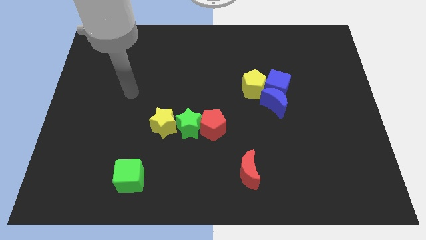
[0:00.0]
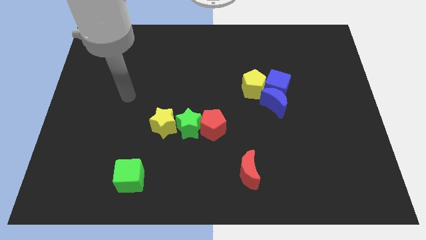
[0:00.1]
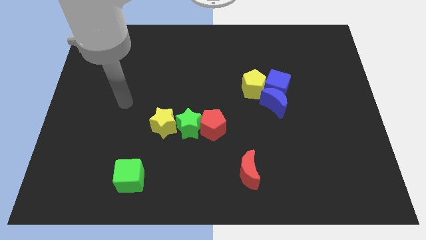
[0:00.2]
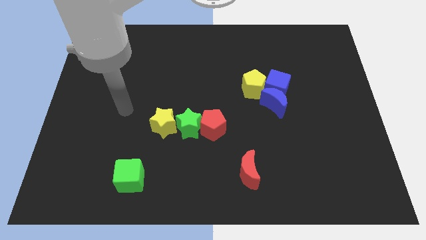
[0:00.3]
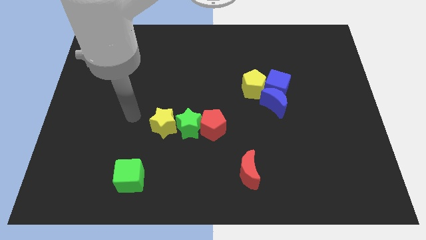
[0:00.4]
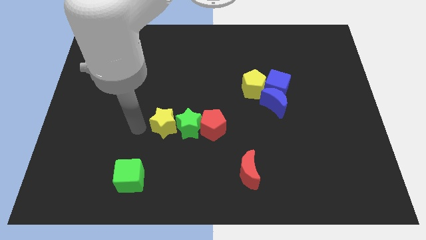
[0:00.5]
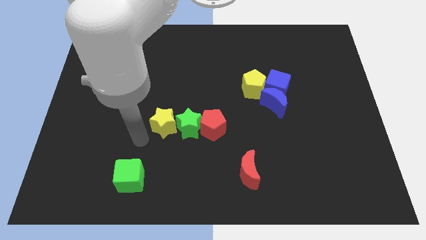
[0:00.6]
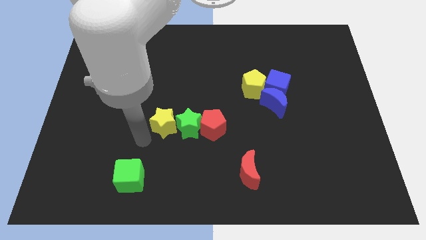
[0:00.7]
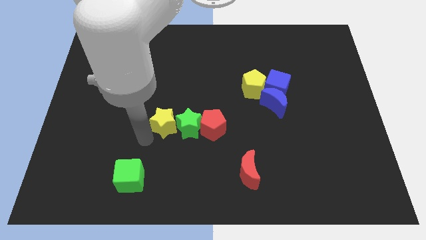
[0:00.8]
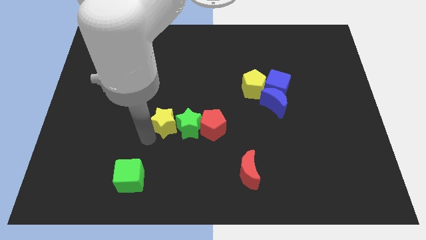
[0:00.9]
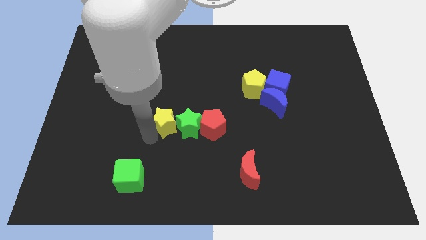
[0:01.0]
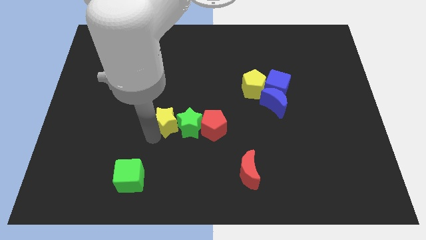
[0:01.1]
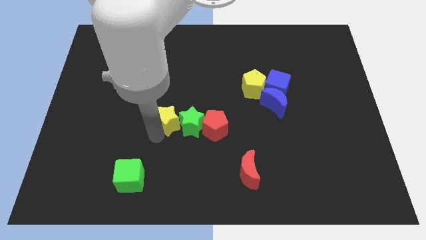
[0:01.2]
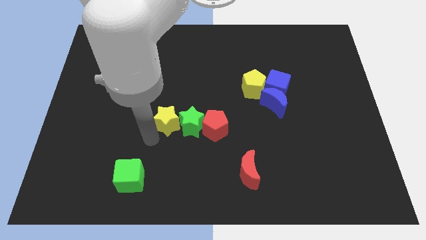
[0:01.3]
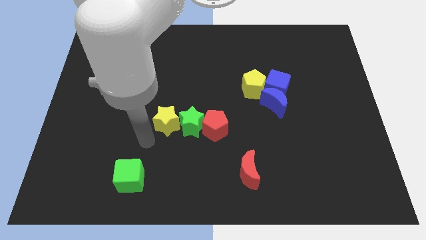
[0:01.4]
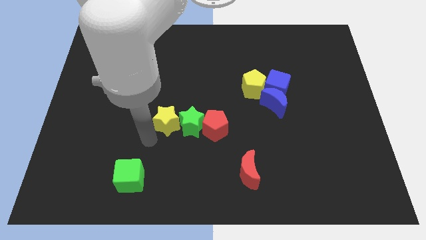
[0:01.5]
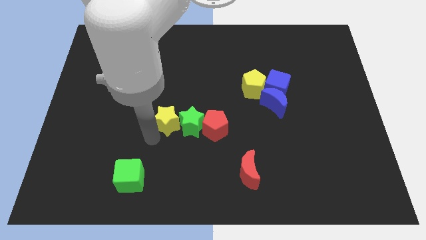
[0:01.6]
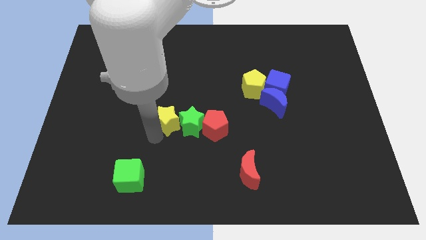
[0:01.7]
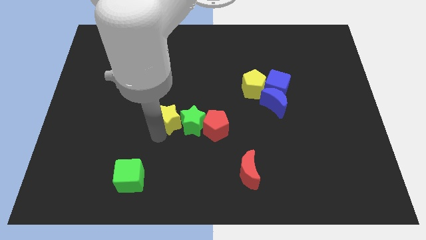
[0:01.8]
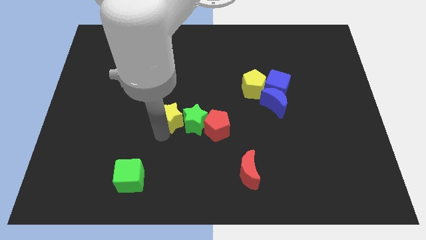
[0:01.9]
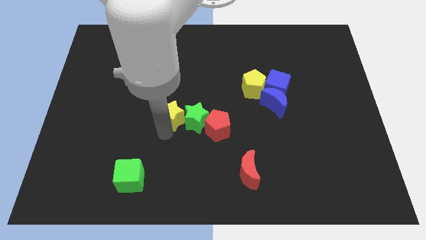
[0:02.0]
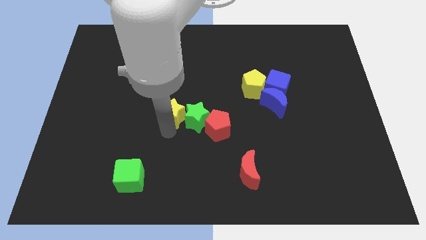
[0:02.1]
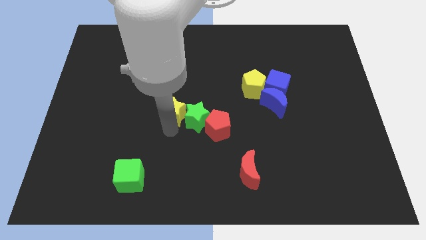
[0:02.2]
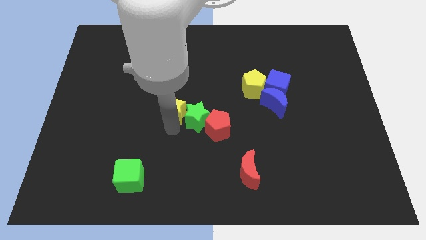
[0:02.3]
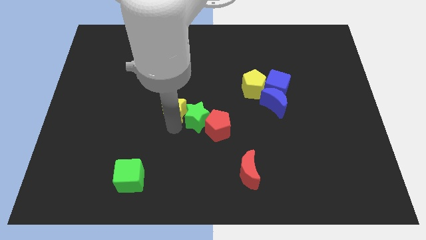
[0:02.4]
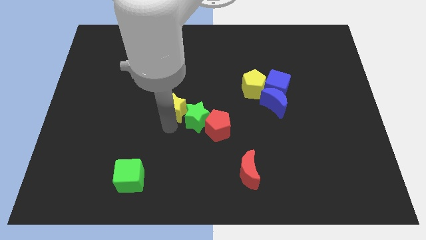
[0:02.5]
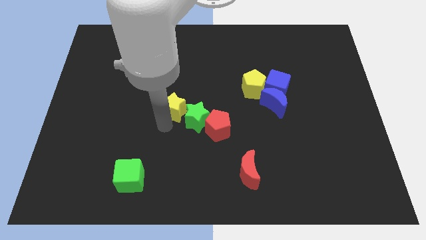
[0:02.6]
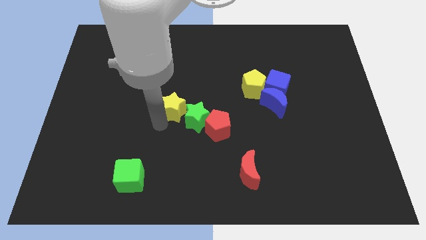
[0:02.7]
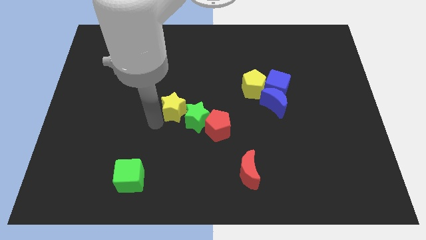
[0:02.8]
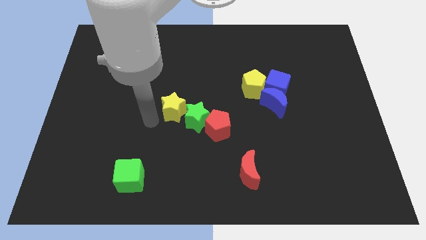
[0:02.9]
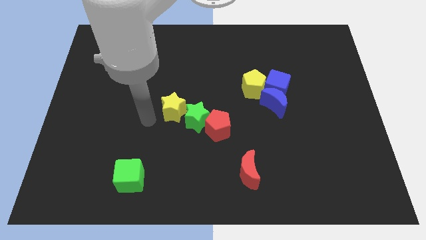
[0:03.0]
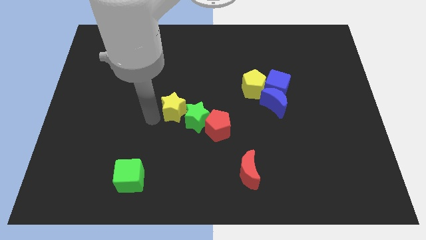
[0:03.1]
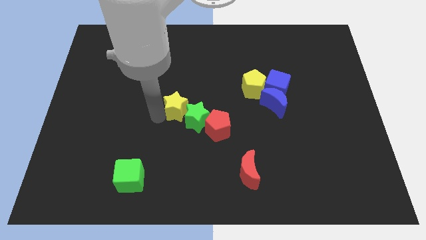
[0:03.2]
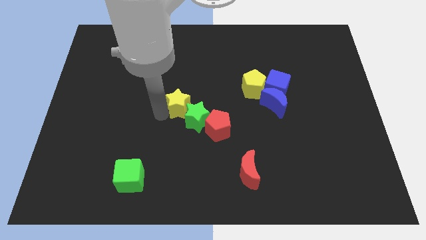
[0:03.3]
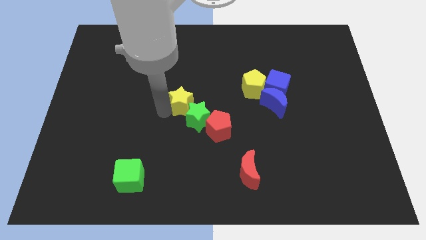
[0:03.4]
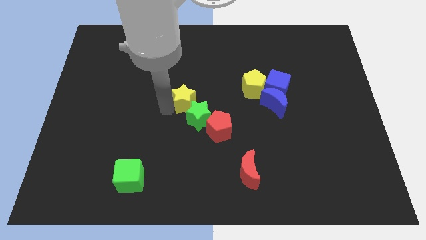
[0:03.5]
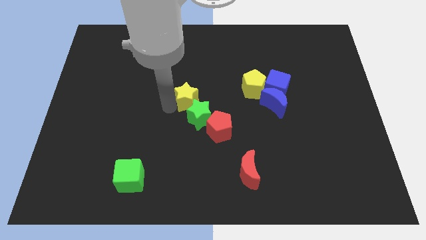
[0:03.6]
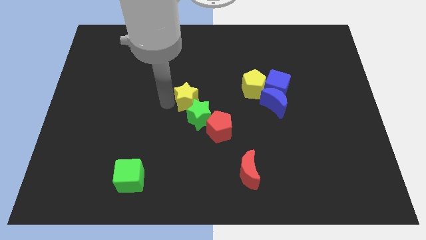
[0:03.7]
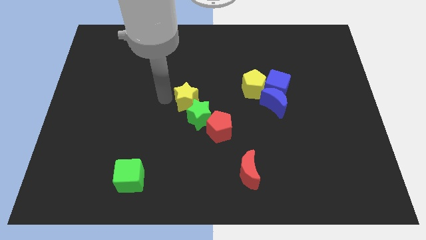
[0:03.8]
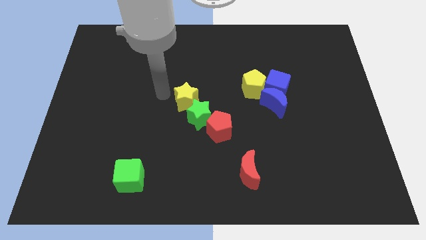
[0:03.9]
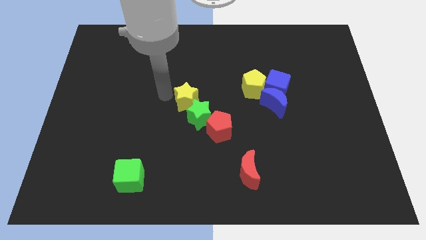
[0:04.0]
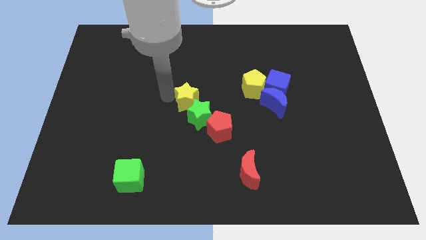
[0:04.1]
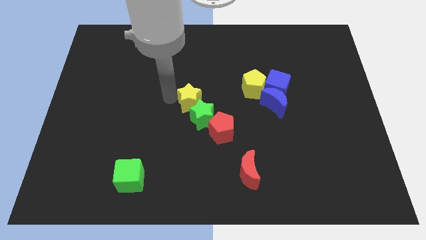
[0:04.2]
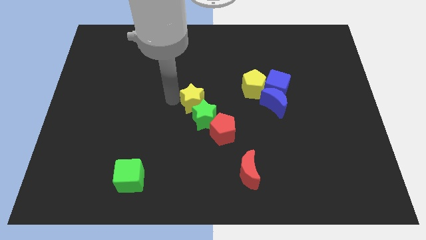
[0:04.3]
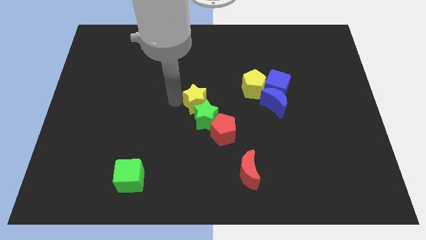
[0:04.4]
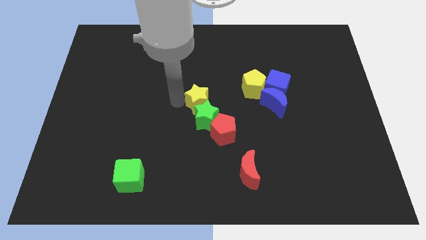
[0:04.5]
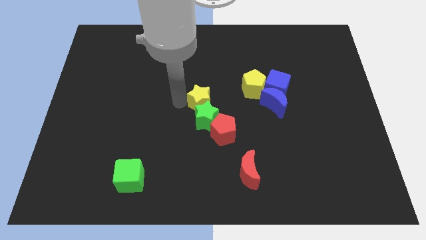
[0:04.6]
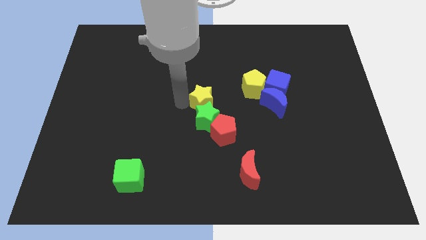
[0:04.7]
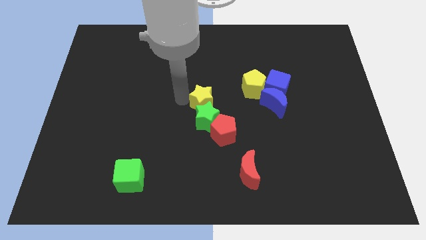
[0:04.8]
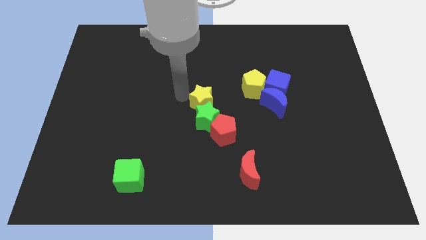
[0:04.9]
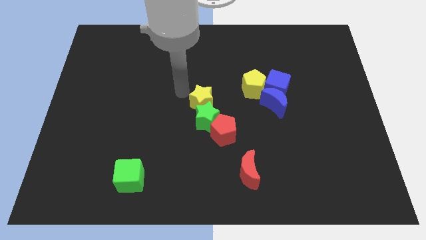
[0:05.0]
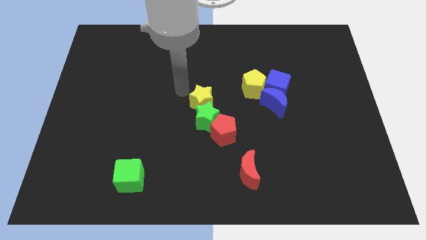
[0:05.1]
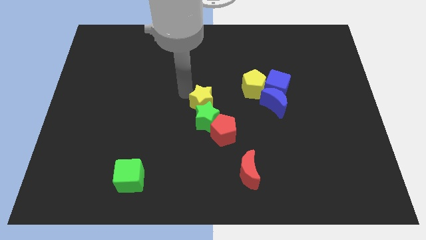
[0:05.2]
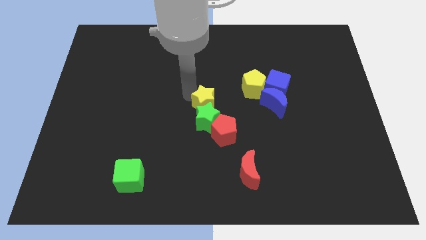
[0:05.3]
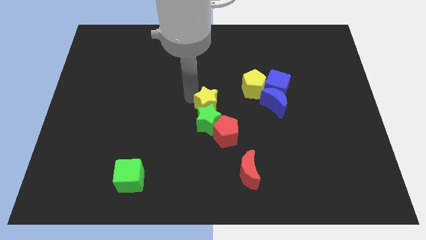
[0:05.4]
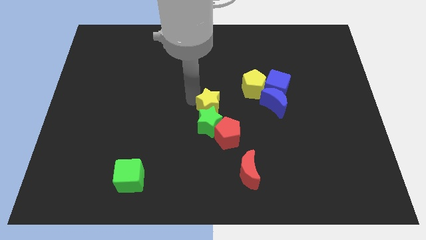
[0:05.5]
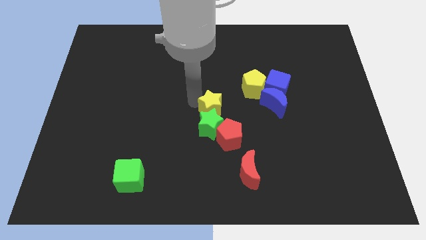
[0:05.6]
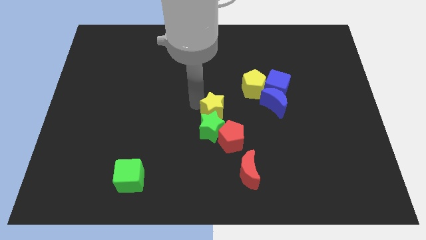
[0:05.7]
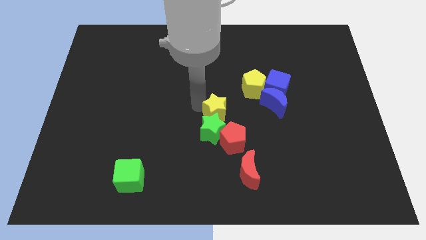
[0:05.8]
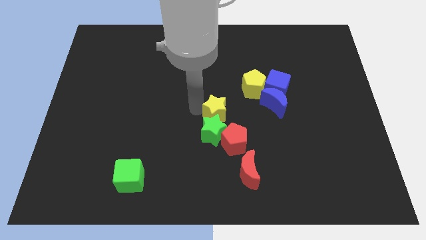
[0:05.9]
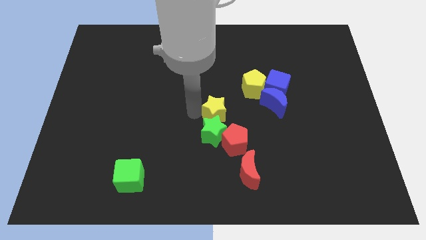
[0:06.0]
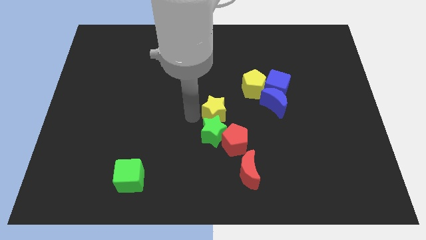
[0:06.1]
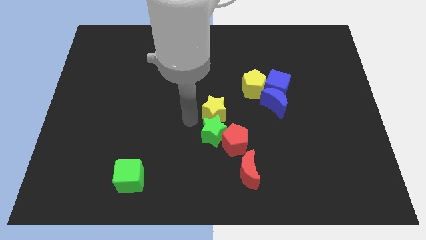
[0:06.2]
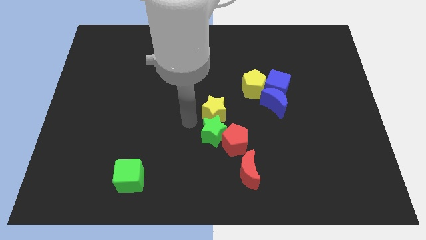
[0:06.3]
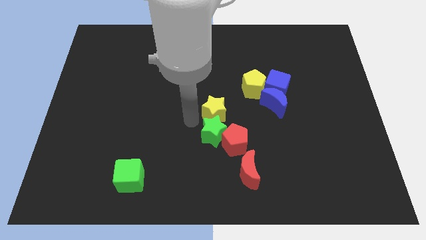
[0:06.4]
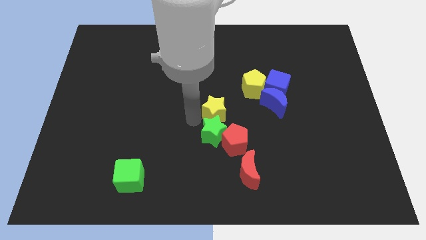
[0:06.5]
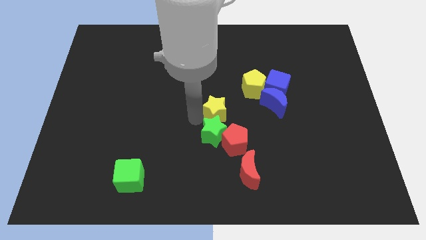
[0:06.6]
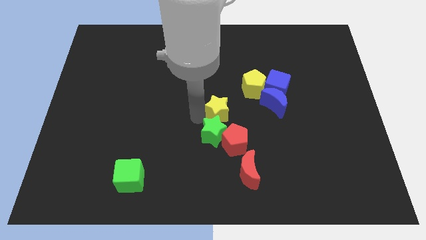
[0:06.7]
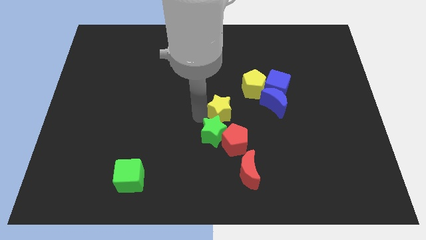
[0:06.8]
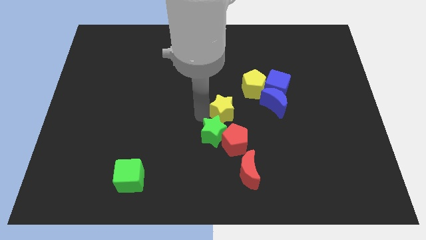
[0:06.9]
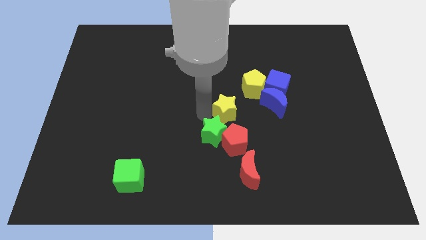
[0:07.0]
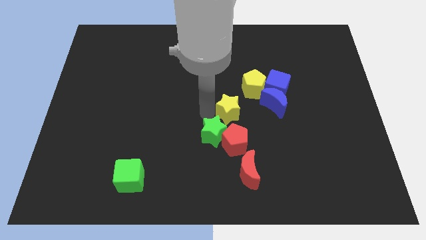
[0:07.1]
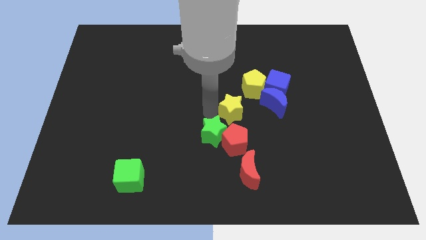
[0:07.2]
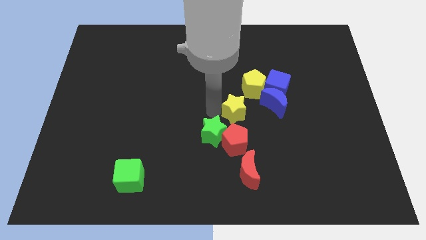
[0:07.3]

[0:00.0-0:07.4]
push the yellow star to the bottom left of the blue cube
